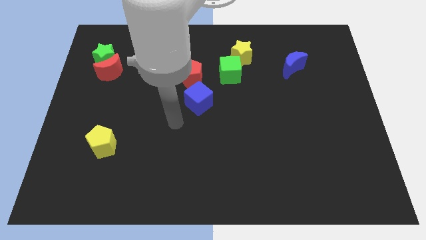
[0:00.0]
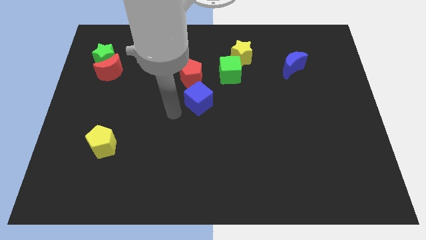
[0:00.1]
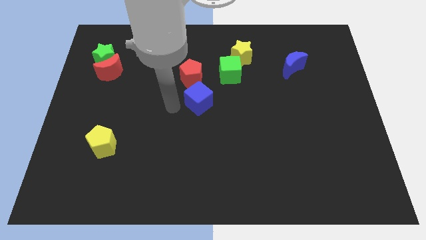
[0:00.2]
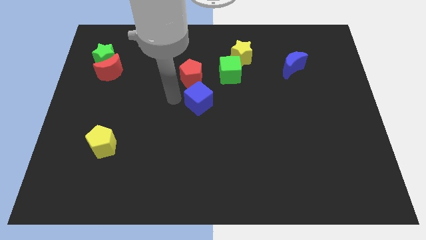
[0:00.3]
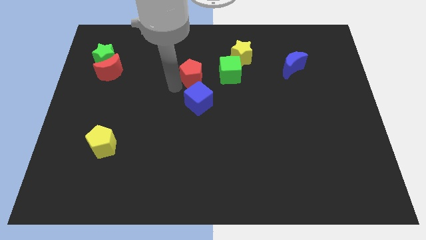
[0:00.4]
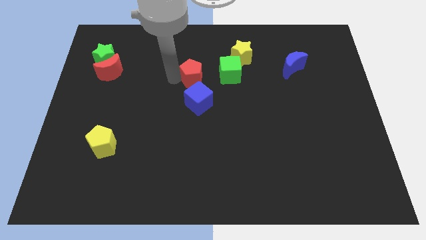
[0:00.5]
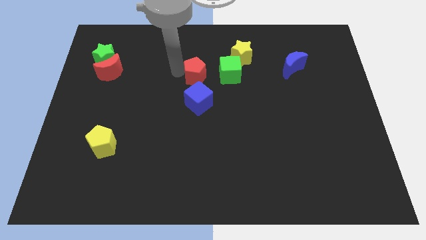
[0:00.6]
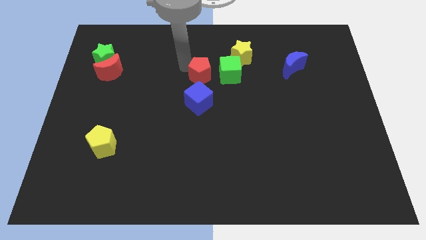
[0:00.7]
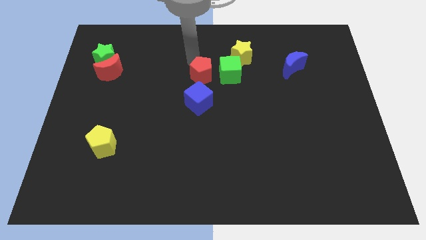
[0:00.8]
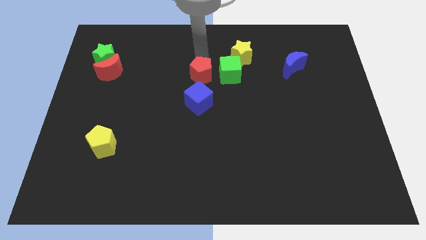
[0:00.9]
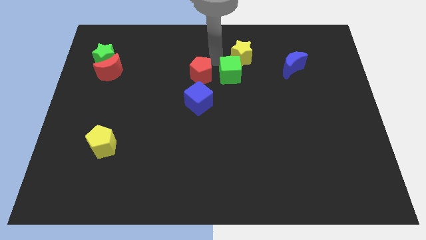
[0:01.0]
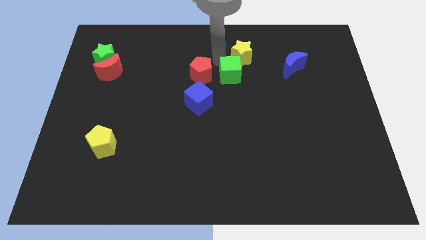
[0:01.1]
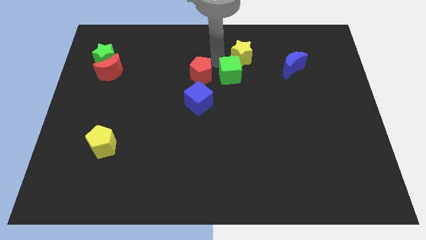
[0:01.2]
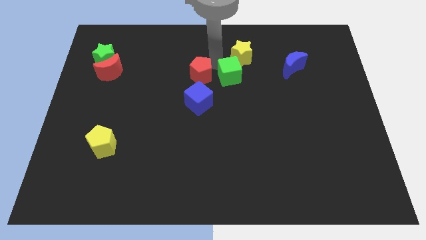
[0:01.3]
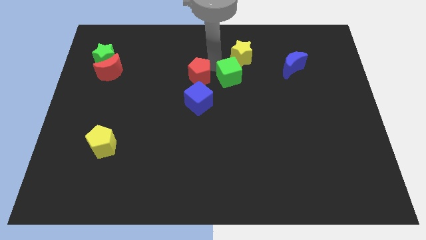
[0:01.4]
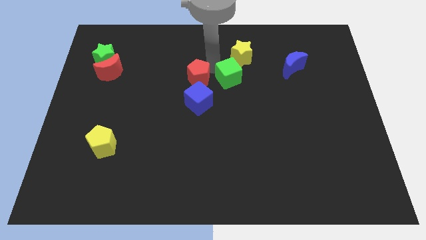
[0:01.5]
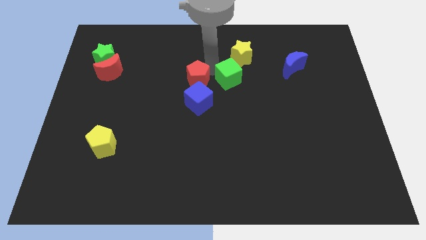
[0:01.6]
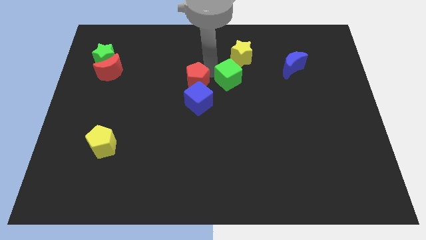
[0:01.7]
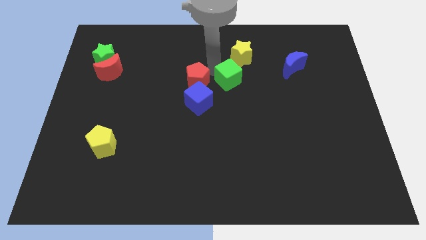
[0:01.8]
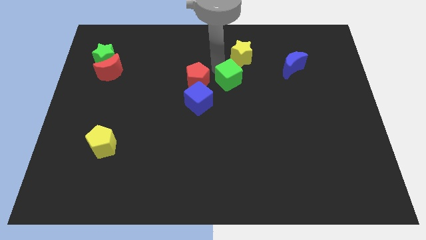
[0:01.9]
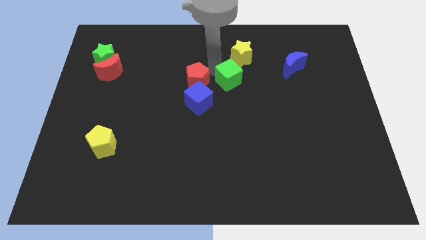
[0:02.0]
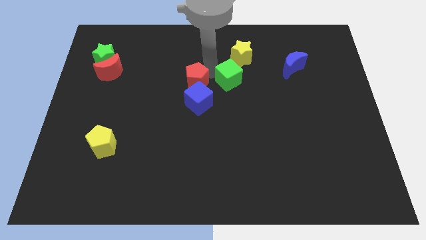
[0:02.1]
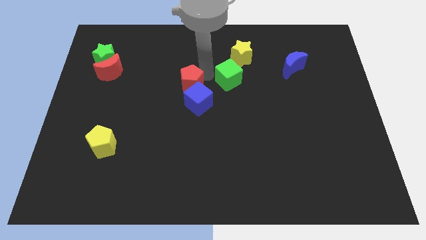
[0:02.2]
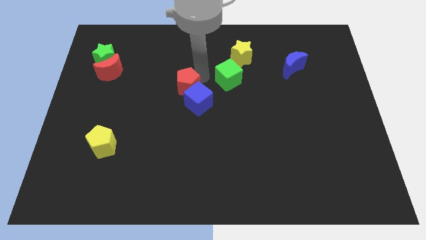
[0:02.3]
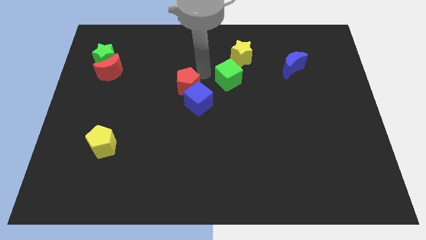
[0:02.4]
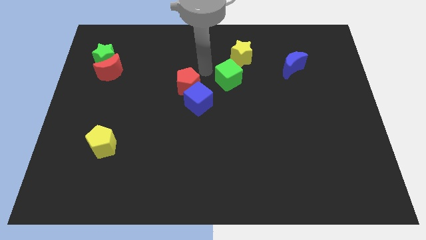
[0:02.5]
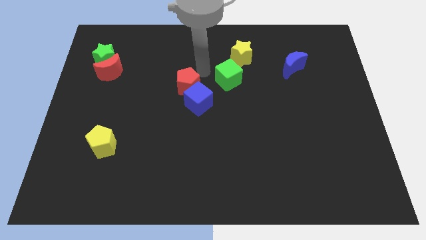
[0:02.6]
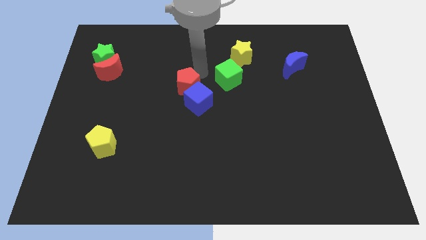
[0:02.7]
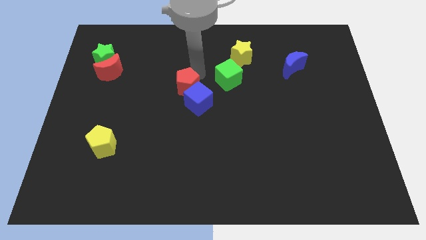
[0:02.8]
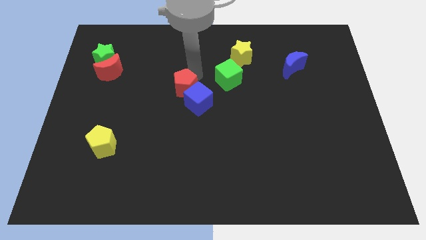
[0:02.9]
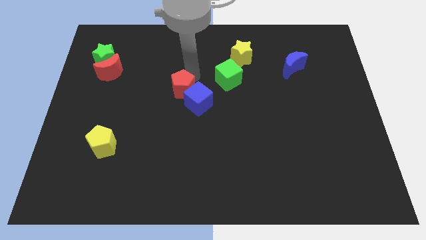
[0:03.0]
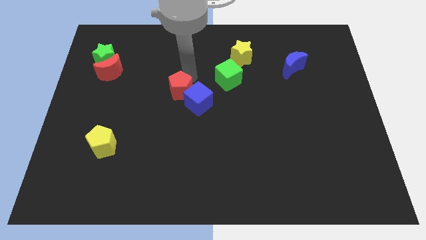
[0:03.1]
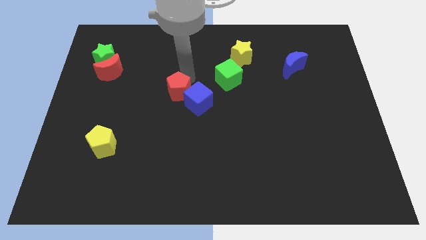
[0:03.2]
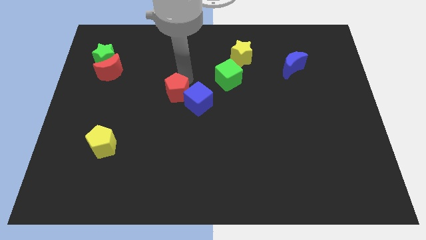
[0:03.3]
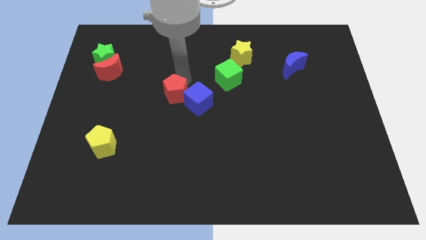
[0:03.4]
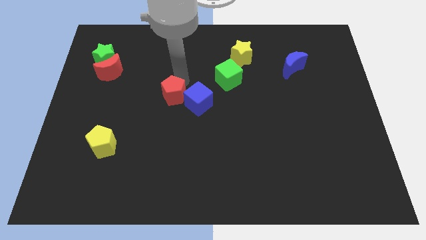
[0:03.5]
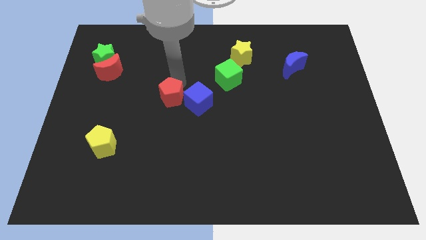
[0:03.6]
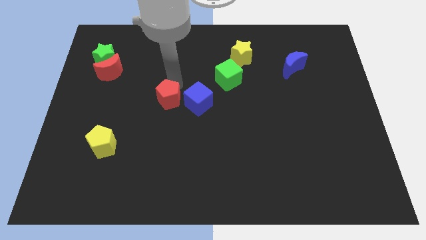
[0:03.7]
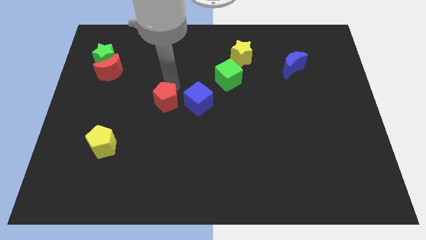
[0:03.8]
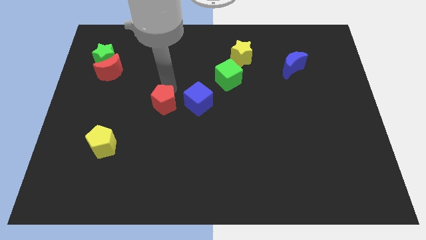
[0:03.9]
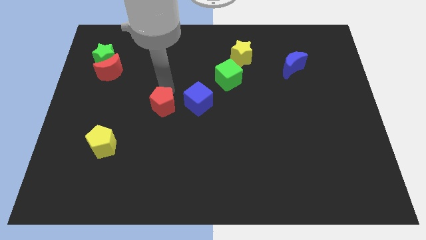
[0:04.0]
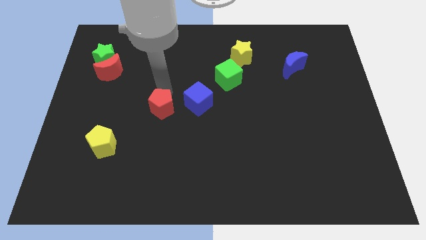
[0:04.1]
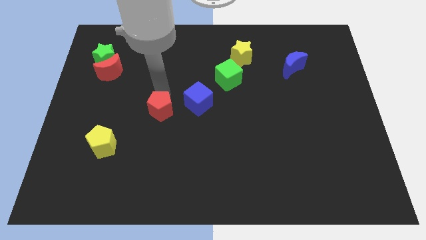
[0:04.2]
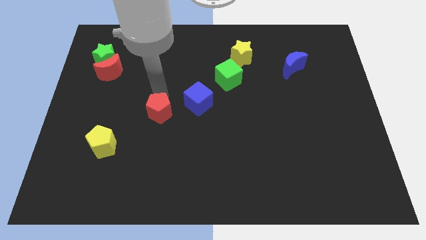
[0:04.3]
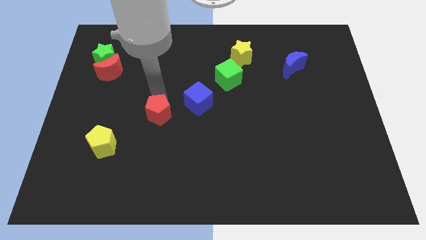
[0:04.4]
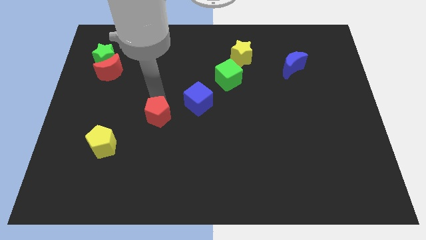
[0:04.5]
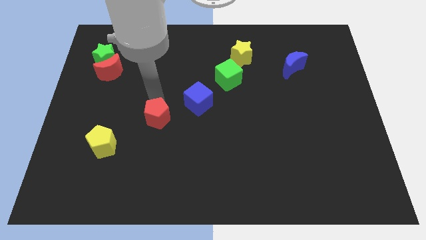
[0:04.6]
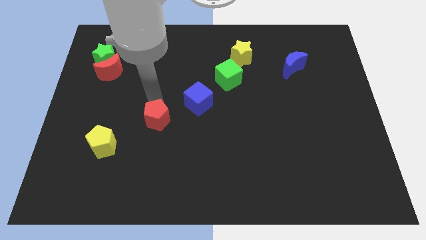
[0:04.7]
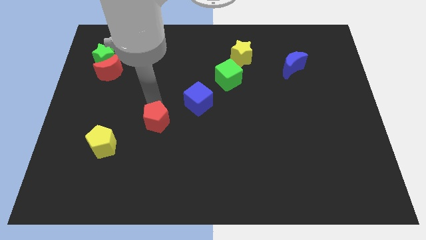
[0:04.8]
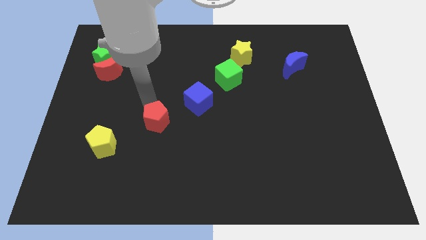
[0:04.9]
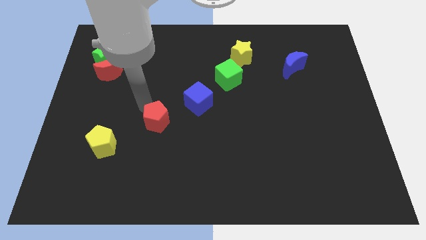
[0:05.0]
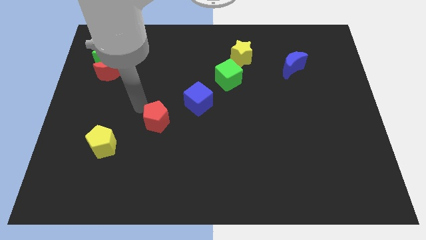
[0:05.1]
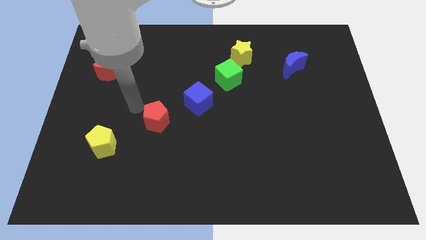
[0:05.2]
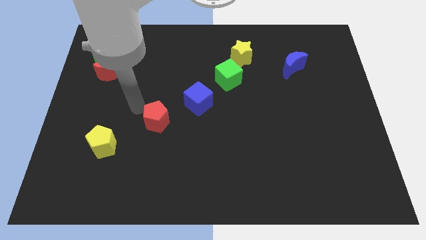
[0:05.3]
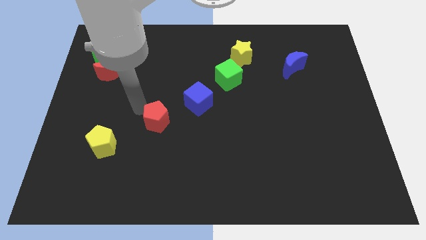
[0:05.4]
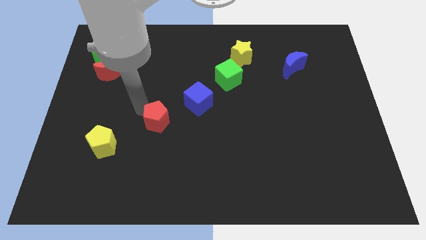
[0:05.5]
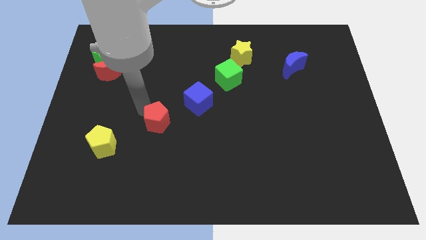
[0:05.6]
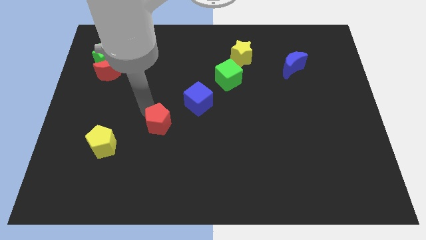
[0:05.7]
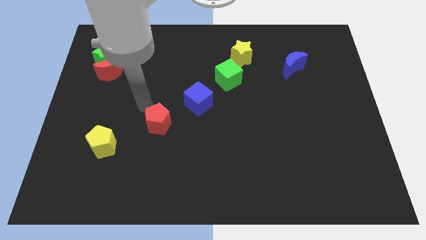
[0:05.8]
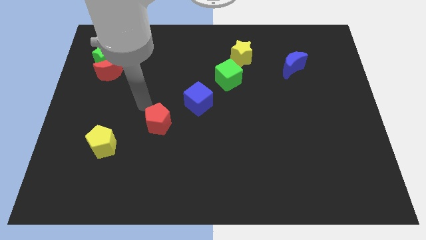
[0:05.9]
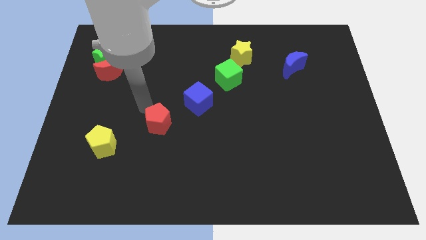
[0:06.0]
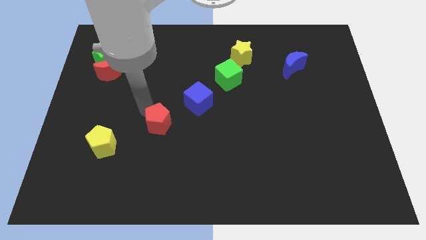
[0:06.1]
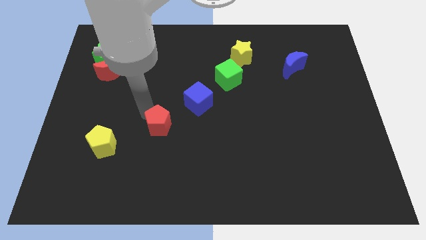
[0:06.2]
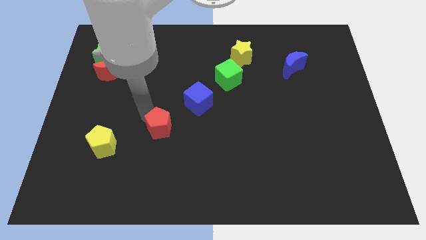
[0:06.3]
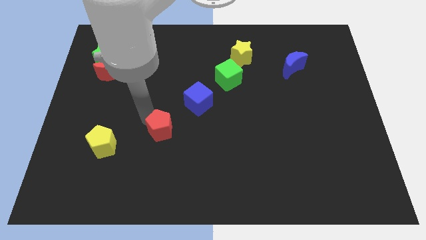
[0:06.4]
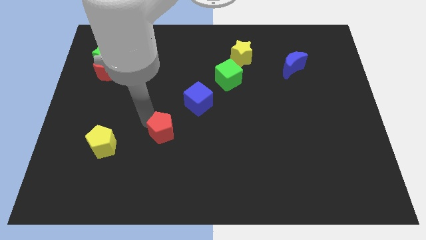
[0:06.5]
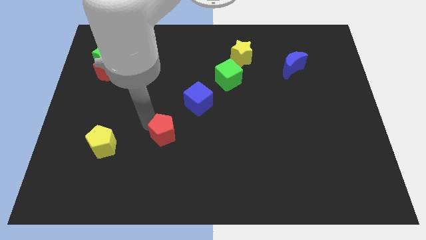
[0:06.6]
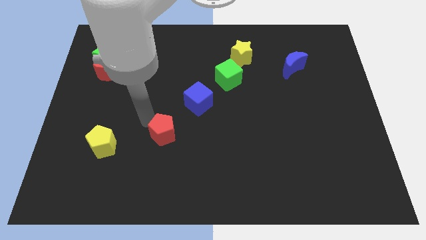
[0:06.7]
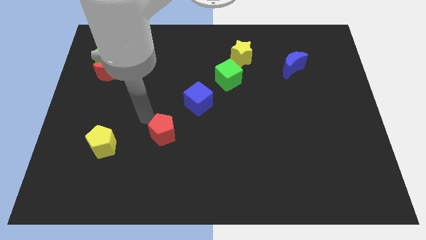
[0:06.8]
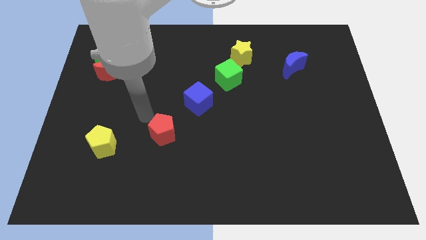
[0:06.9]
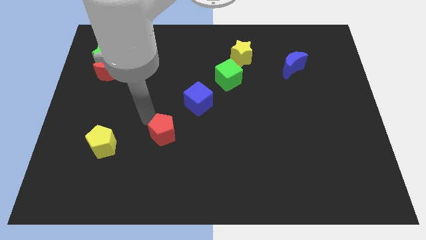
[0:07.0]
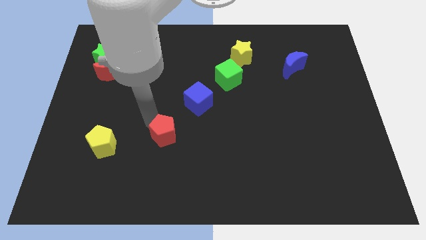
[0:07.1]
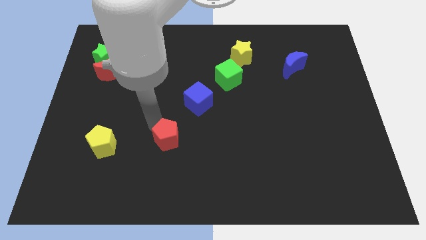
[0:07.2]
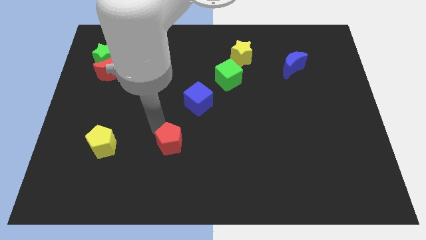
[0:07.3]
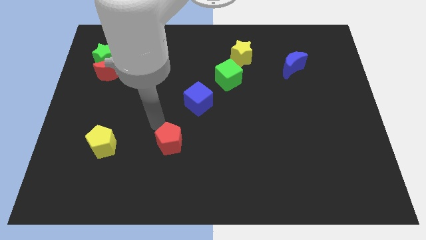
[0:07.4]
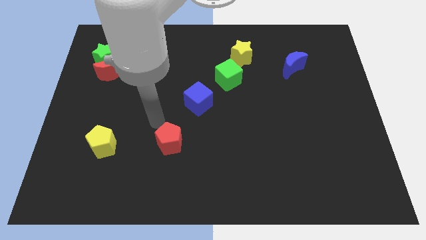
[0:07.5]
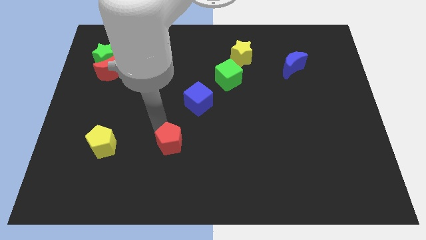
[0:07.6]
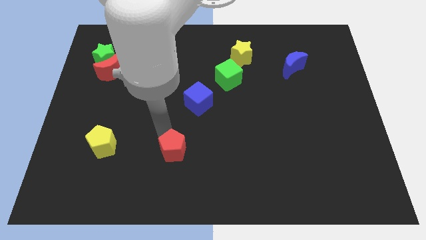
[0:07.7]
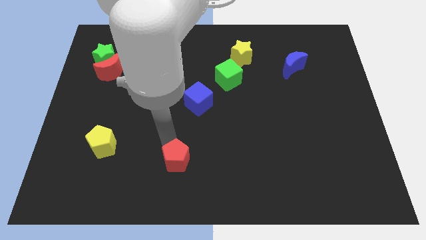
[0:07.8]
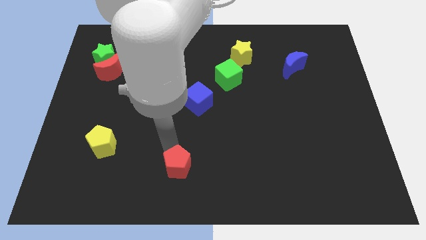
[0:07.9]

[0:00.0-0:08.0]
slide the red pentagon to the bottom
